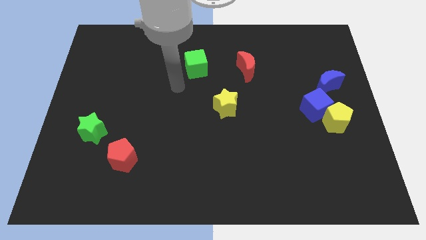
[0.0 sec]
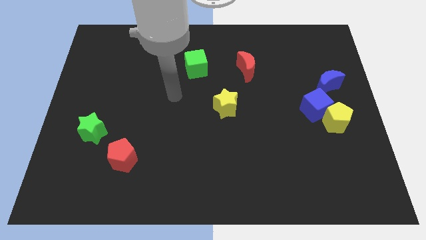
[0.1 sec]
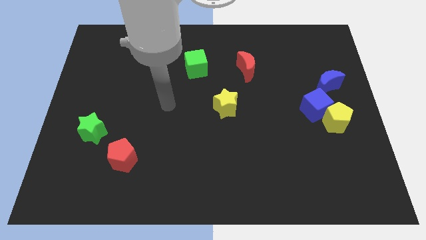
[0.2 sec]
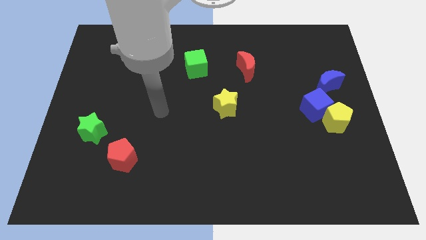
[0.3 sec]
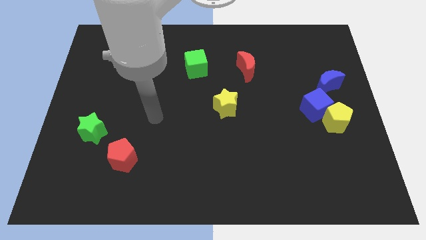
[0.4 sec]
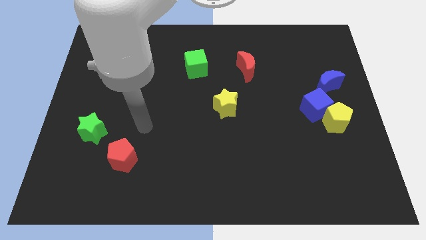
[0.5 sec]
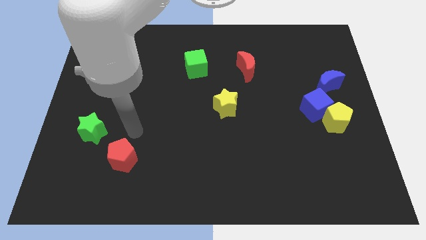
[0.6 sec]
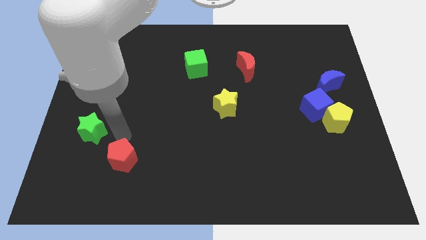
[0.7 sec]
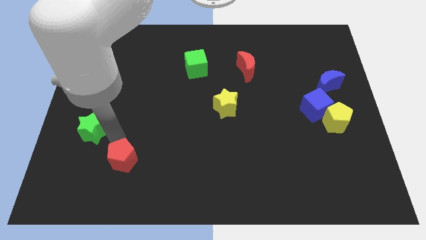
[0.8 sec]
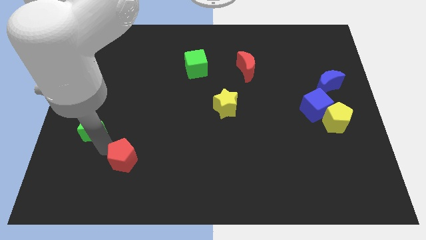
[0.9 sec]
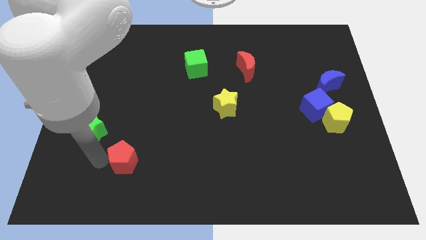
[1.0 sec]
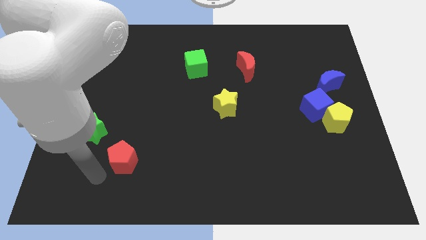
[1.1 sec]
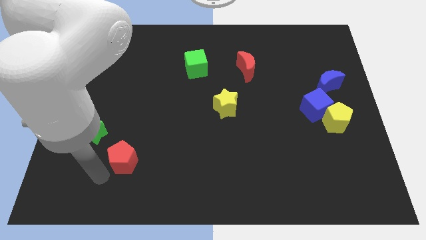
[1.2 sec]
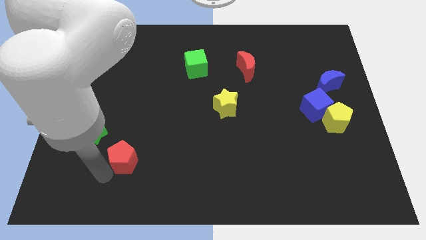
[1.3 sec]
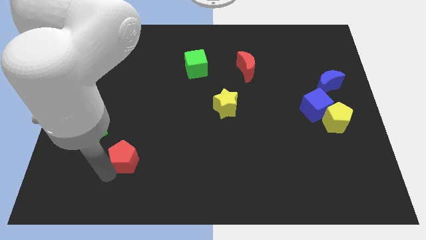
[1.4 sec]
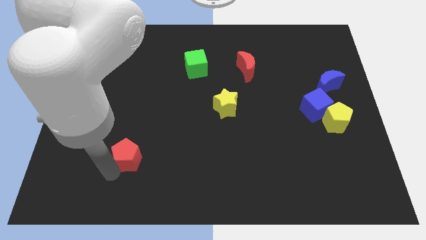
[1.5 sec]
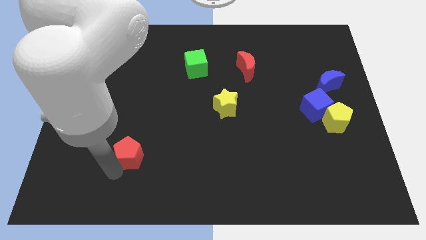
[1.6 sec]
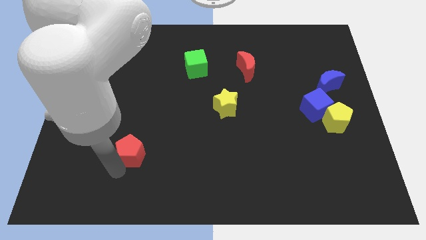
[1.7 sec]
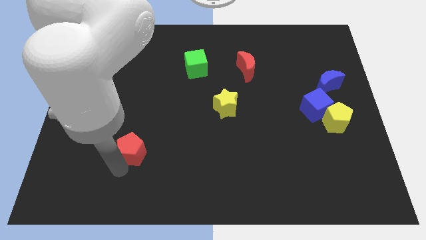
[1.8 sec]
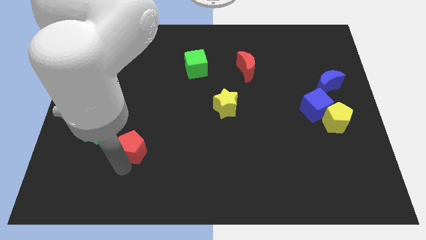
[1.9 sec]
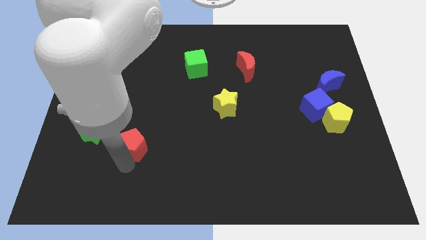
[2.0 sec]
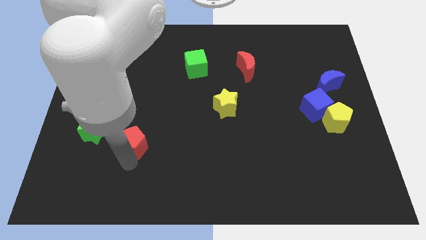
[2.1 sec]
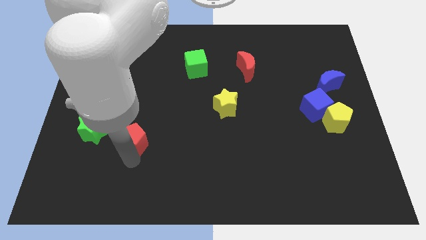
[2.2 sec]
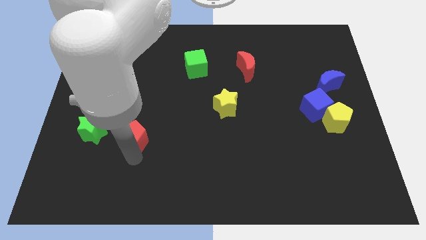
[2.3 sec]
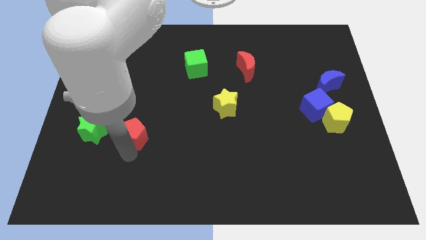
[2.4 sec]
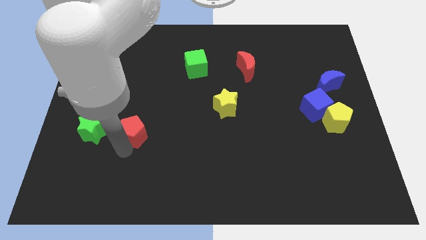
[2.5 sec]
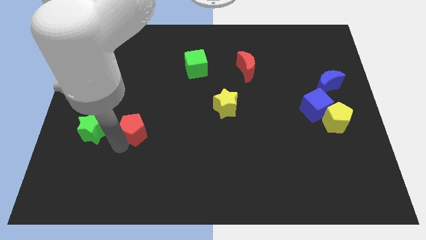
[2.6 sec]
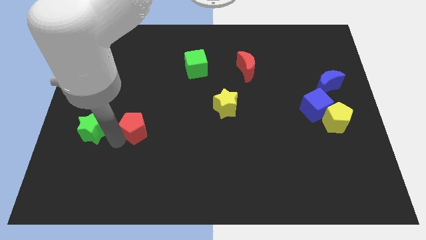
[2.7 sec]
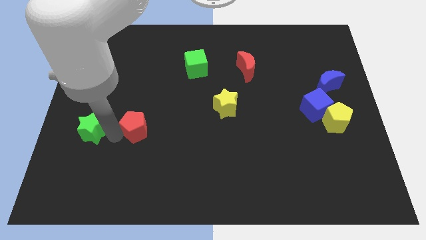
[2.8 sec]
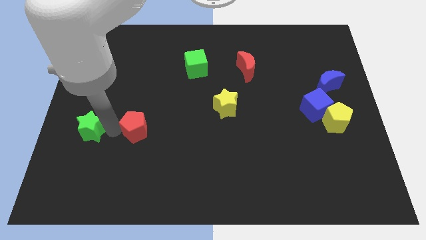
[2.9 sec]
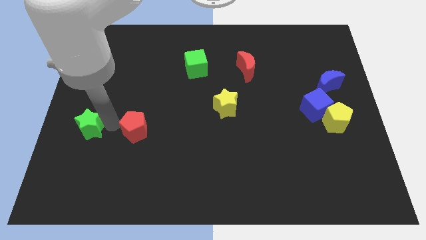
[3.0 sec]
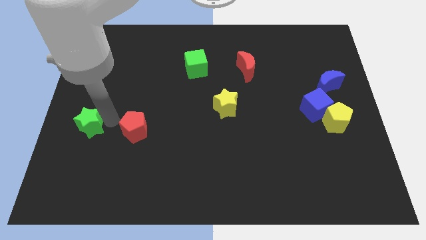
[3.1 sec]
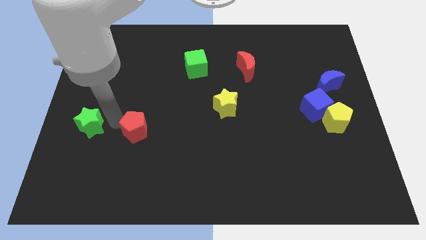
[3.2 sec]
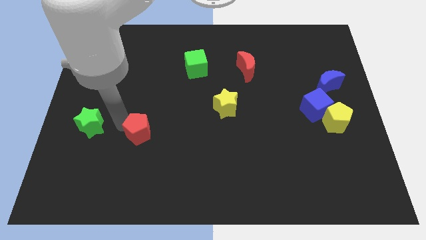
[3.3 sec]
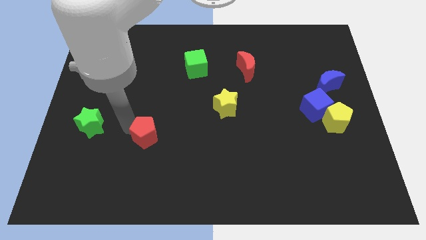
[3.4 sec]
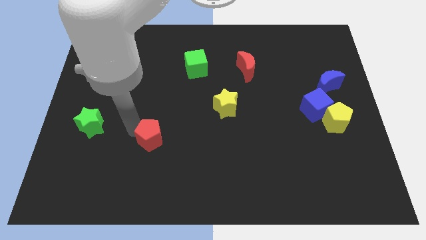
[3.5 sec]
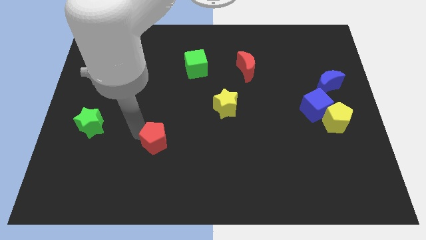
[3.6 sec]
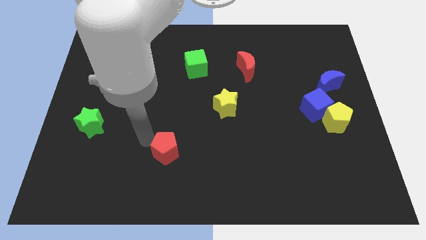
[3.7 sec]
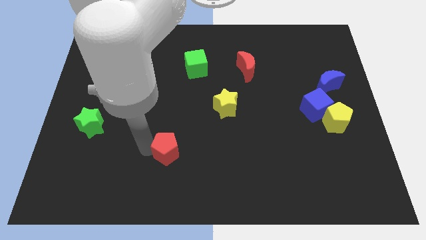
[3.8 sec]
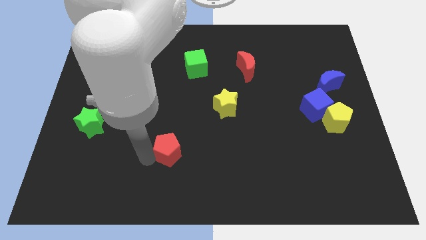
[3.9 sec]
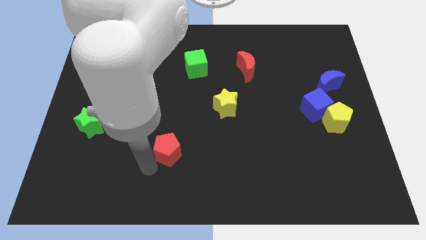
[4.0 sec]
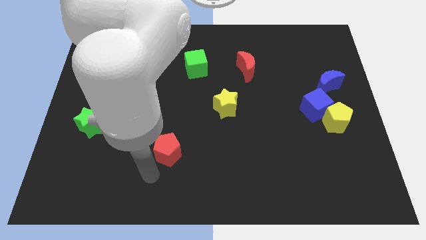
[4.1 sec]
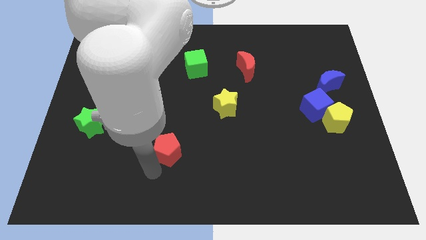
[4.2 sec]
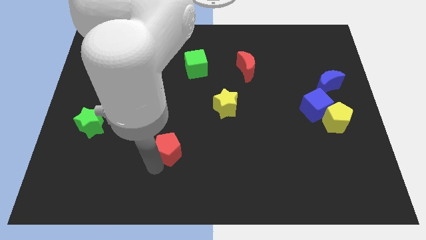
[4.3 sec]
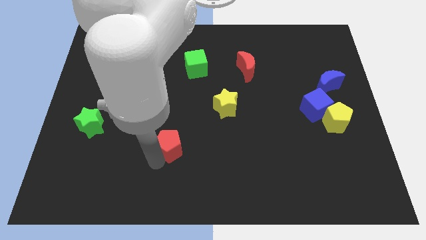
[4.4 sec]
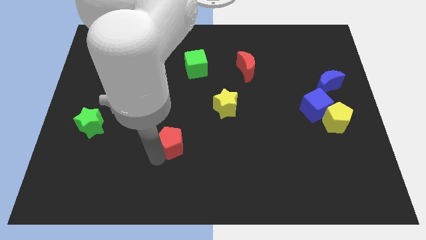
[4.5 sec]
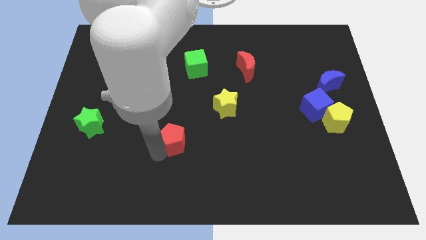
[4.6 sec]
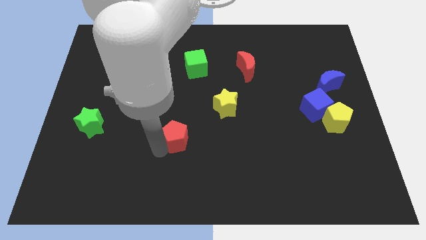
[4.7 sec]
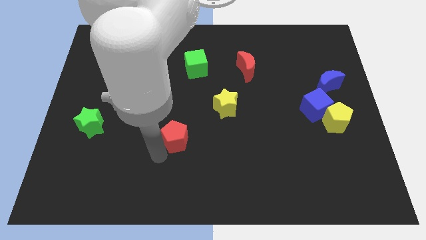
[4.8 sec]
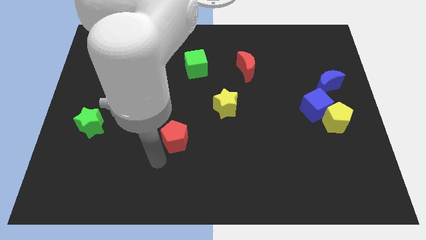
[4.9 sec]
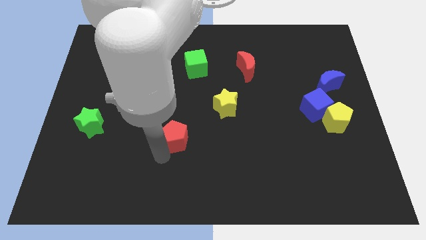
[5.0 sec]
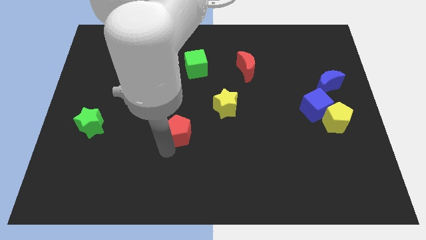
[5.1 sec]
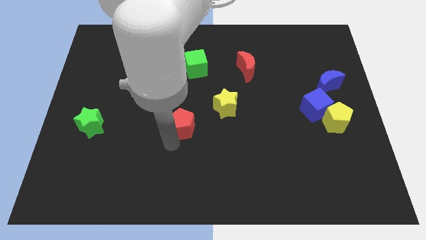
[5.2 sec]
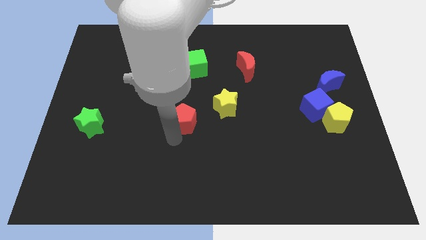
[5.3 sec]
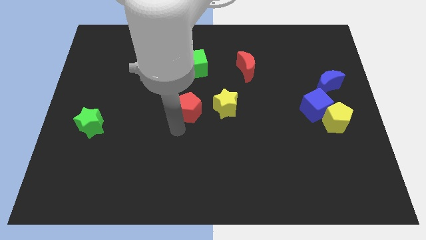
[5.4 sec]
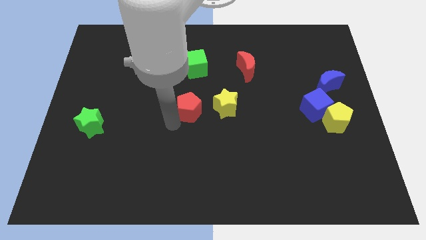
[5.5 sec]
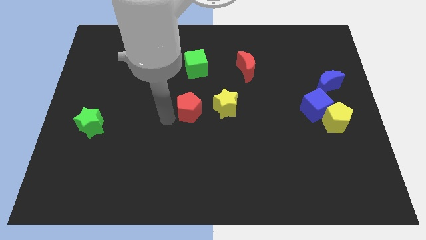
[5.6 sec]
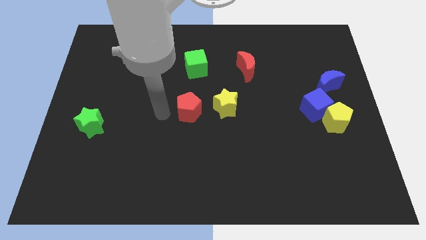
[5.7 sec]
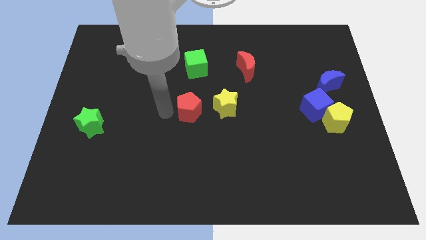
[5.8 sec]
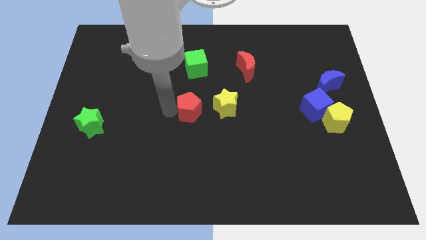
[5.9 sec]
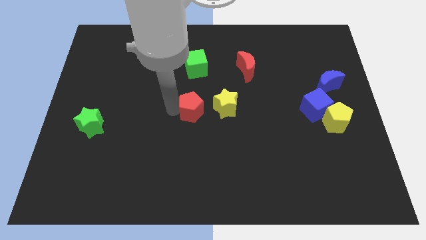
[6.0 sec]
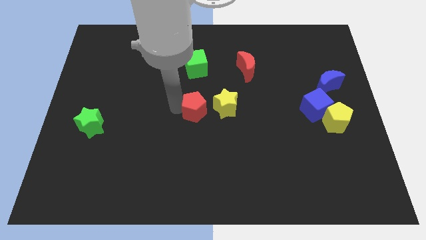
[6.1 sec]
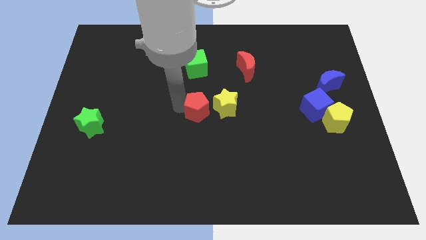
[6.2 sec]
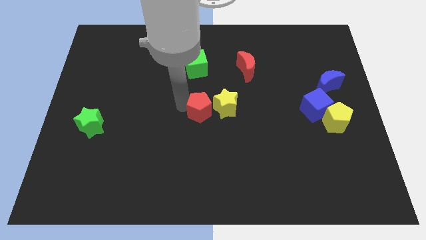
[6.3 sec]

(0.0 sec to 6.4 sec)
slide the red pentagon close to the yellow star
